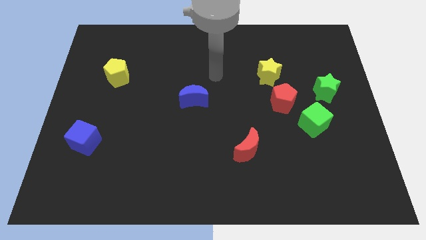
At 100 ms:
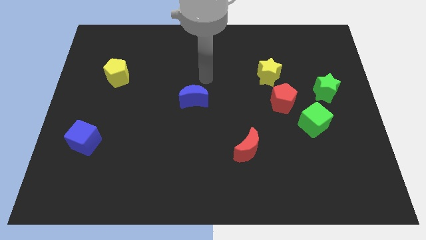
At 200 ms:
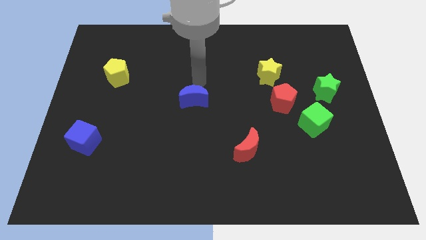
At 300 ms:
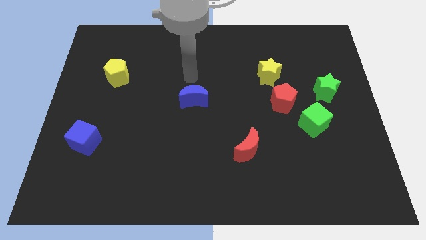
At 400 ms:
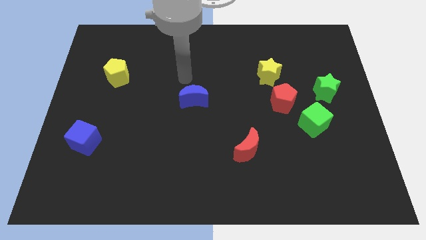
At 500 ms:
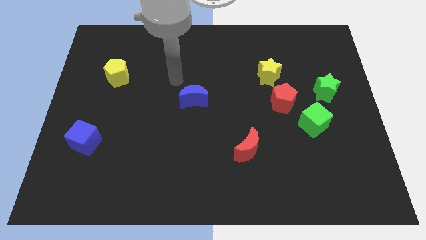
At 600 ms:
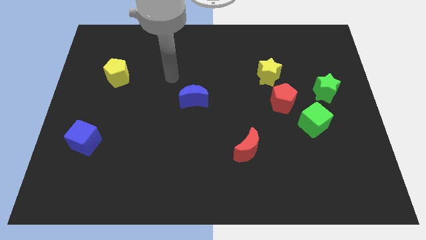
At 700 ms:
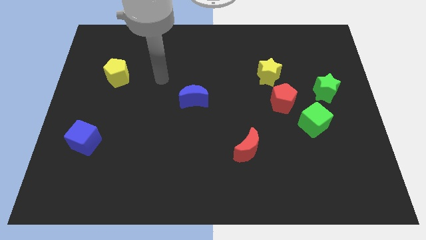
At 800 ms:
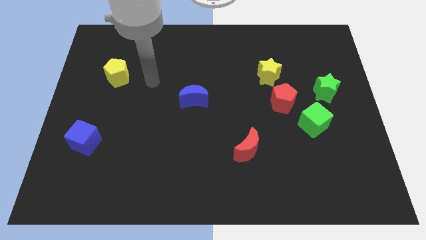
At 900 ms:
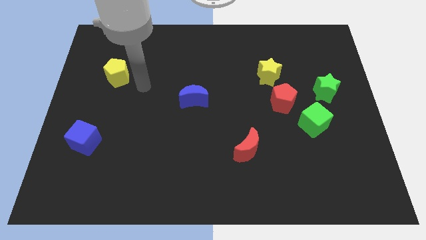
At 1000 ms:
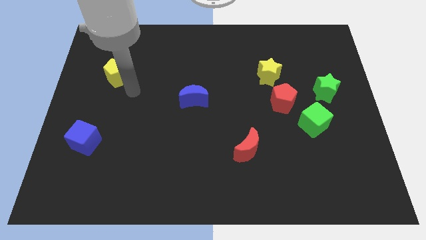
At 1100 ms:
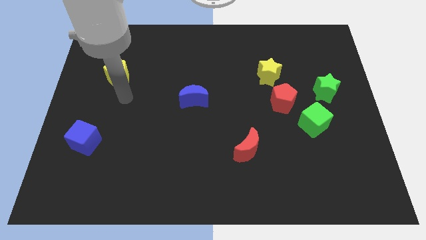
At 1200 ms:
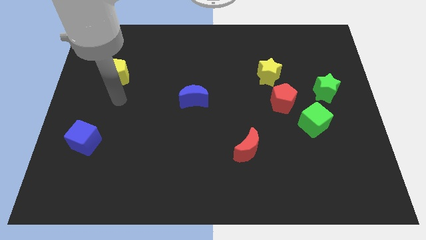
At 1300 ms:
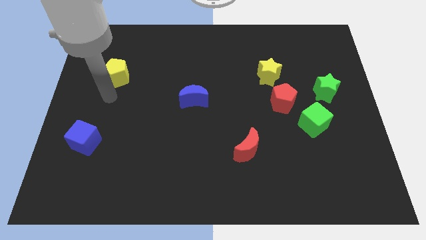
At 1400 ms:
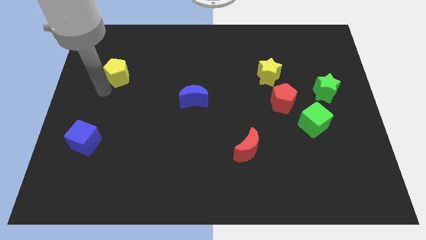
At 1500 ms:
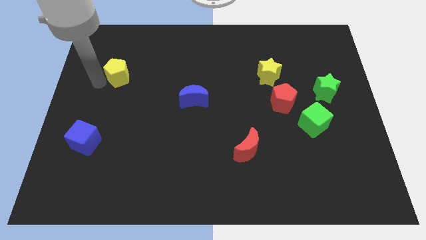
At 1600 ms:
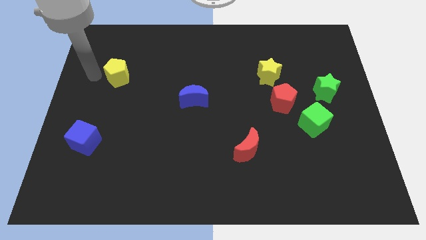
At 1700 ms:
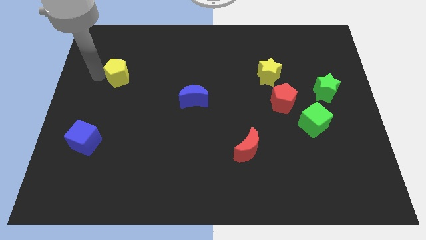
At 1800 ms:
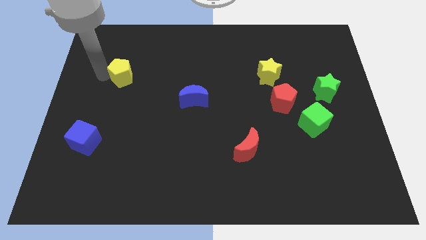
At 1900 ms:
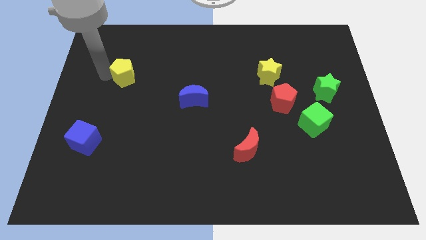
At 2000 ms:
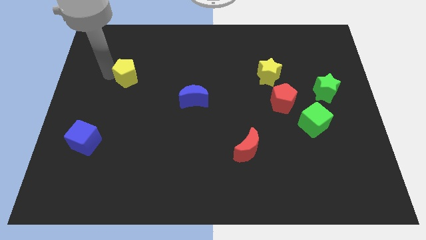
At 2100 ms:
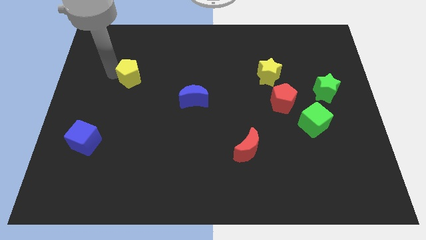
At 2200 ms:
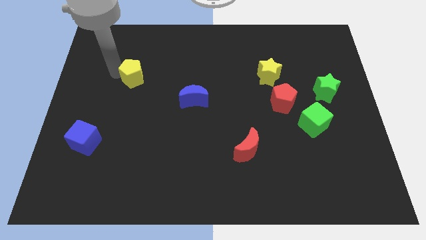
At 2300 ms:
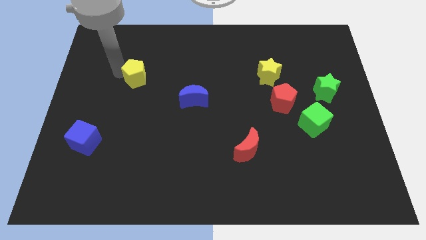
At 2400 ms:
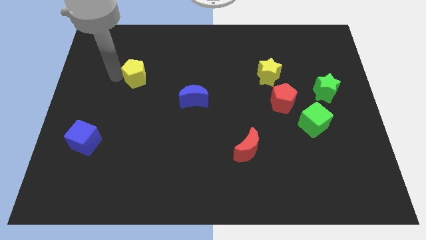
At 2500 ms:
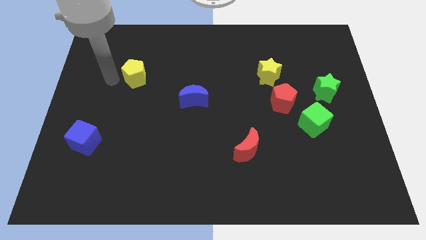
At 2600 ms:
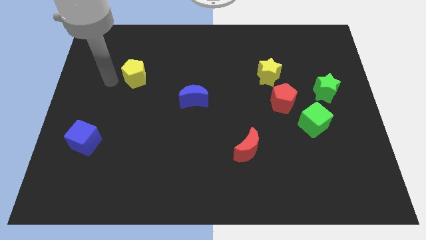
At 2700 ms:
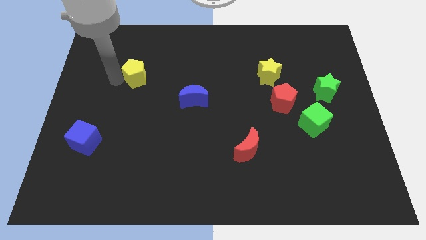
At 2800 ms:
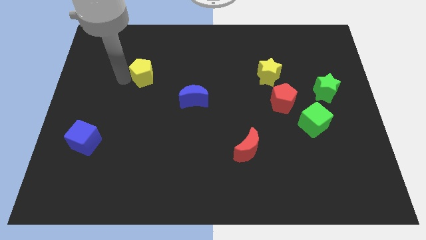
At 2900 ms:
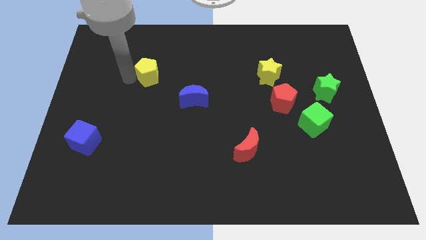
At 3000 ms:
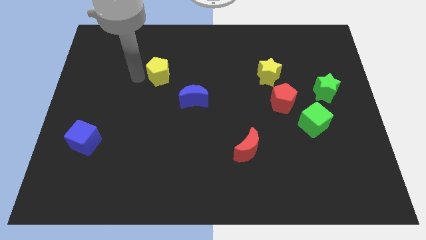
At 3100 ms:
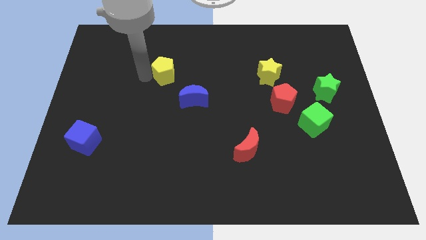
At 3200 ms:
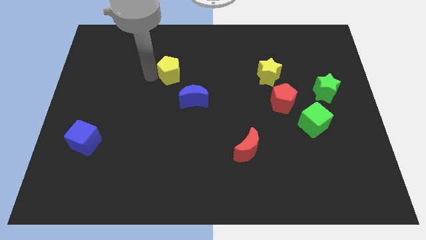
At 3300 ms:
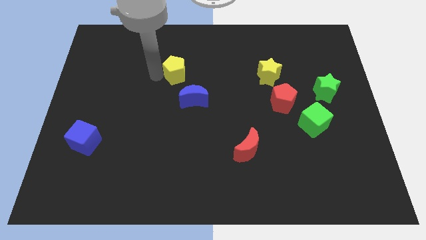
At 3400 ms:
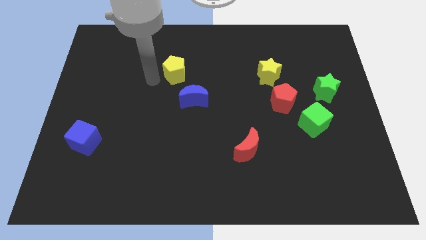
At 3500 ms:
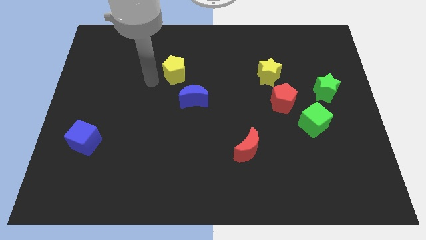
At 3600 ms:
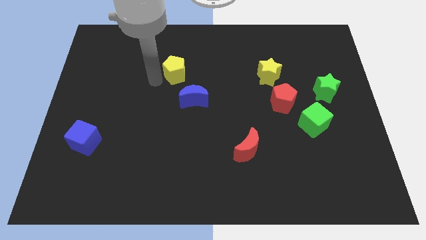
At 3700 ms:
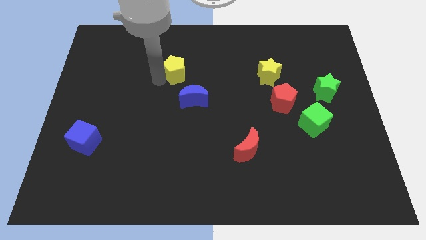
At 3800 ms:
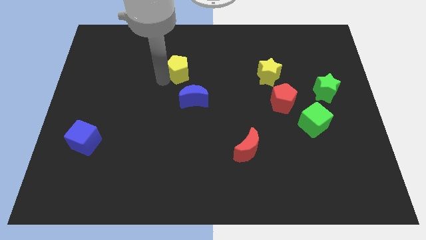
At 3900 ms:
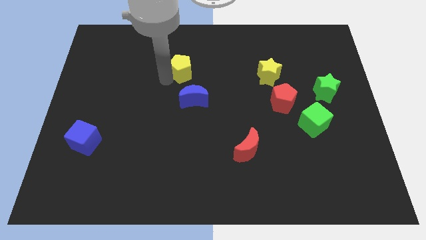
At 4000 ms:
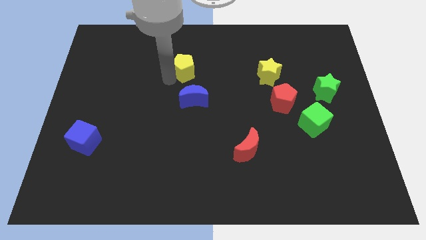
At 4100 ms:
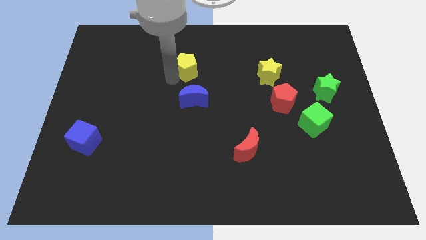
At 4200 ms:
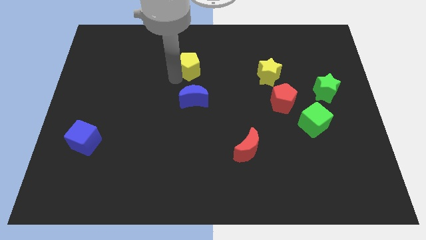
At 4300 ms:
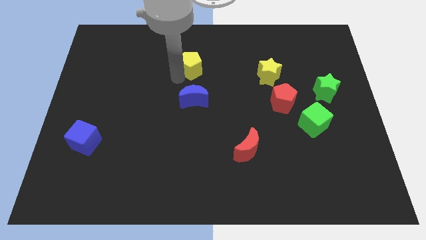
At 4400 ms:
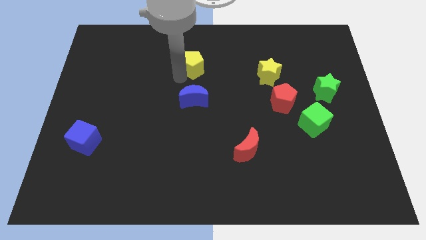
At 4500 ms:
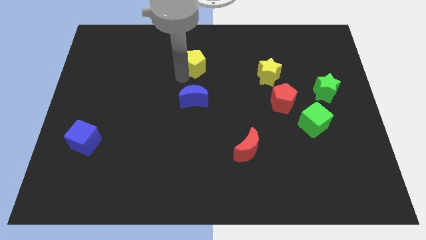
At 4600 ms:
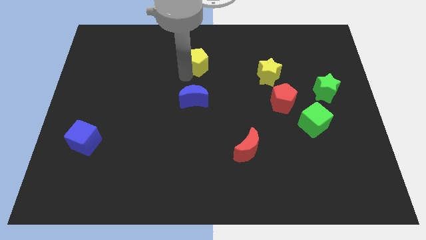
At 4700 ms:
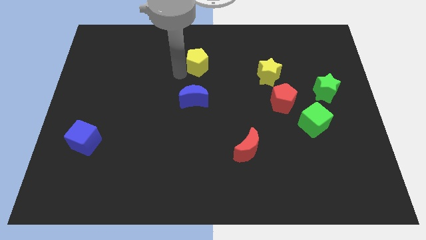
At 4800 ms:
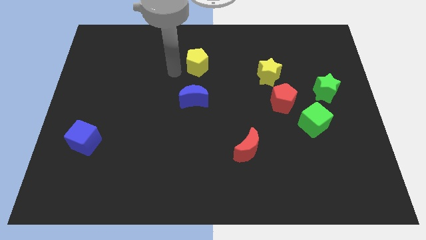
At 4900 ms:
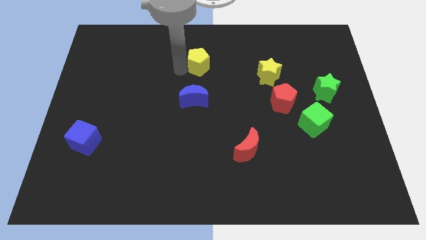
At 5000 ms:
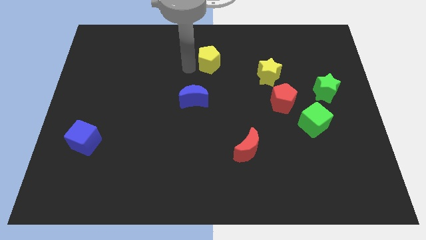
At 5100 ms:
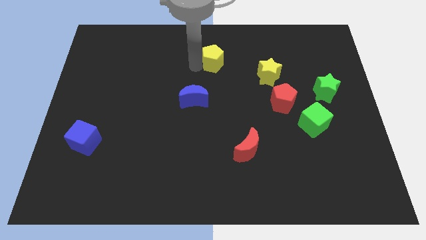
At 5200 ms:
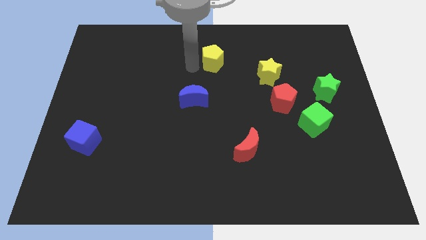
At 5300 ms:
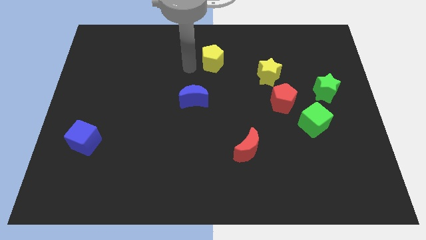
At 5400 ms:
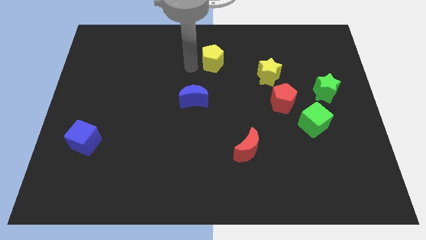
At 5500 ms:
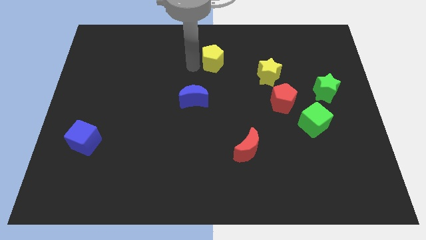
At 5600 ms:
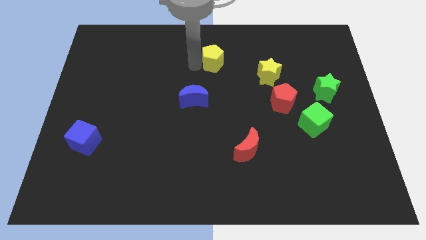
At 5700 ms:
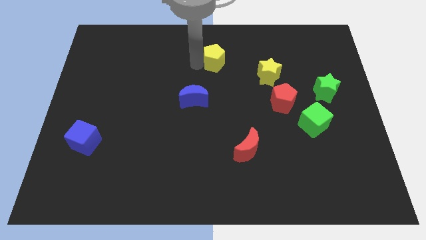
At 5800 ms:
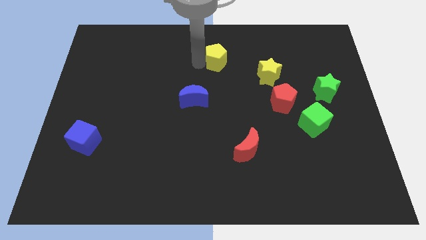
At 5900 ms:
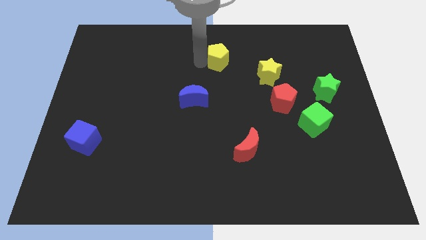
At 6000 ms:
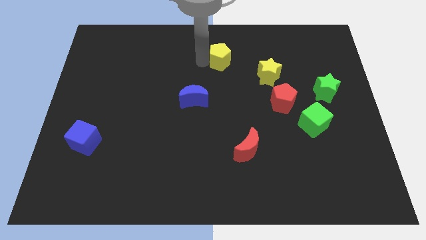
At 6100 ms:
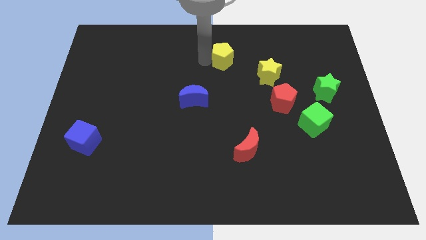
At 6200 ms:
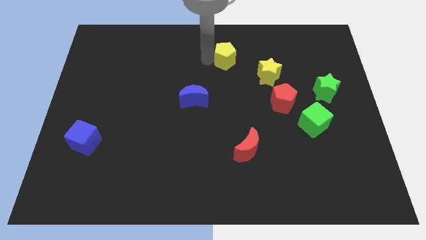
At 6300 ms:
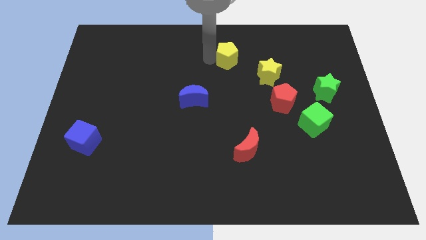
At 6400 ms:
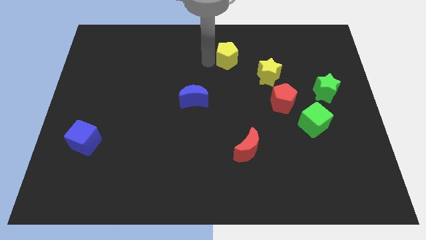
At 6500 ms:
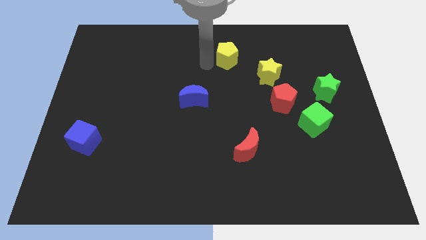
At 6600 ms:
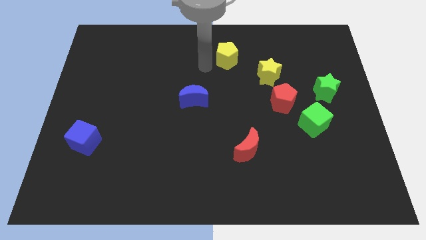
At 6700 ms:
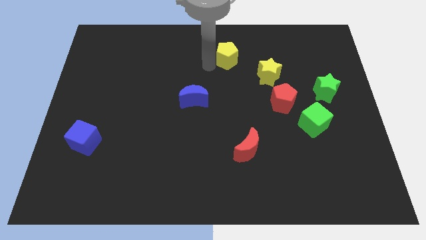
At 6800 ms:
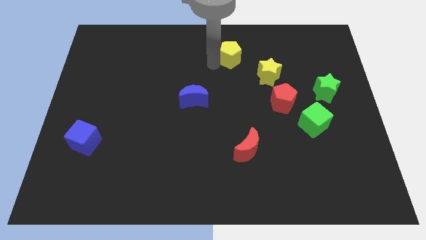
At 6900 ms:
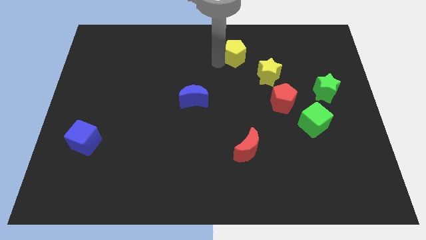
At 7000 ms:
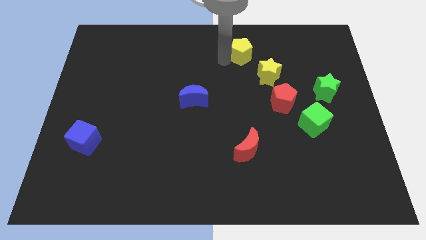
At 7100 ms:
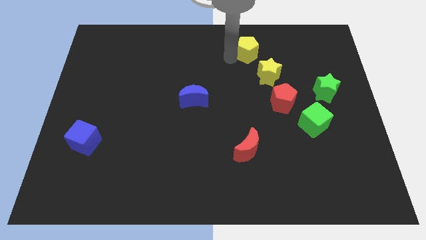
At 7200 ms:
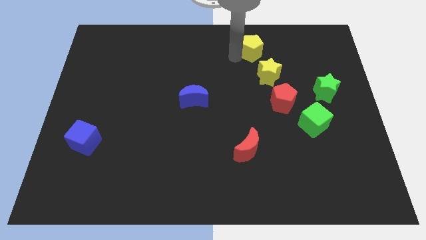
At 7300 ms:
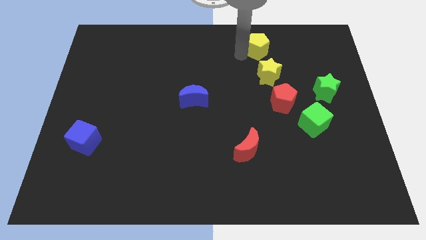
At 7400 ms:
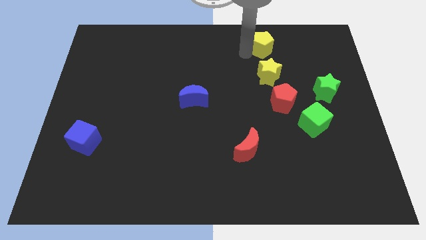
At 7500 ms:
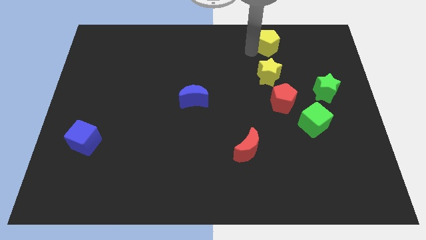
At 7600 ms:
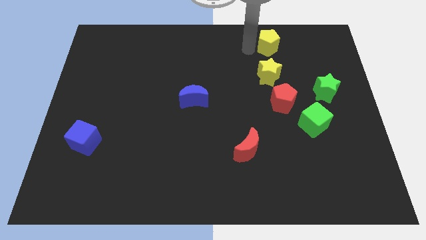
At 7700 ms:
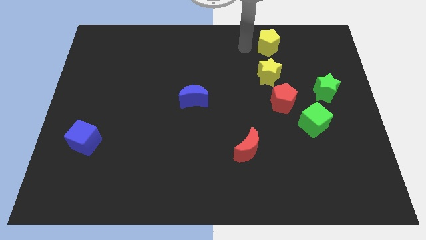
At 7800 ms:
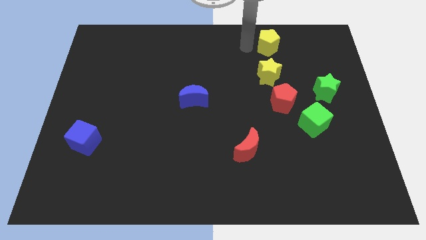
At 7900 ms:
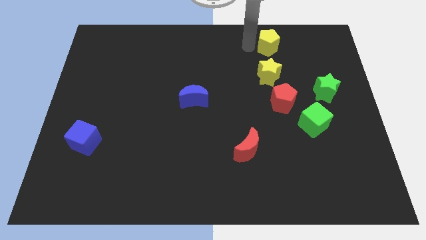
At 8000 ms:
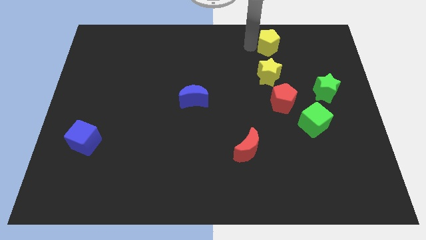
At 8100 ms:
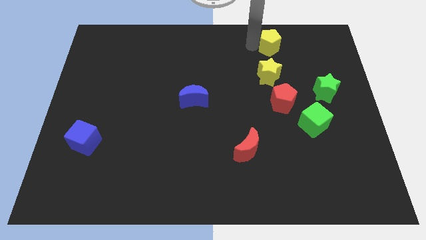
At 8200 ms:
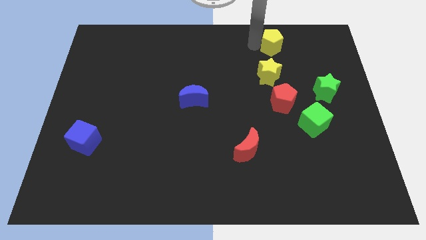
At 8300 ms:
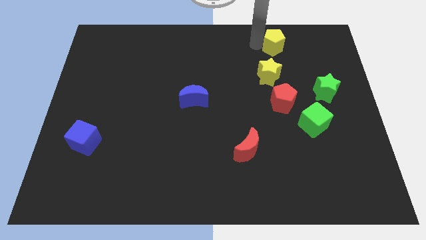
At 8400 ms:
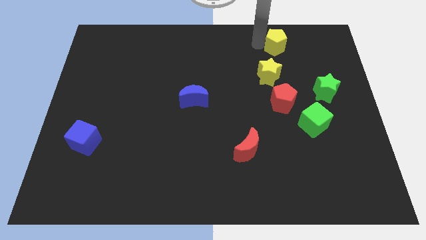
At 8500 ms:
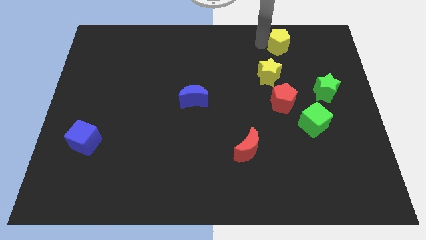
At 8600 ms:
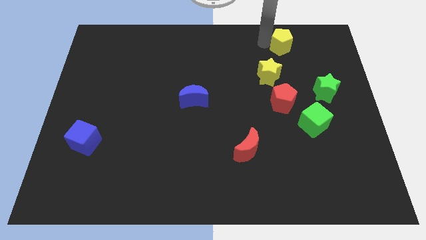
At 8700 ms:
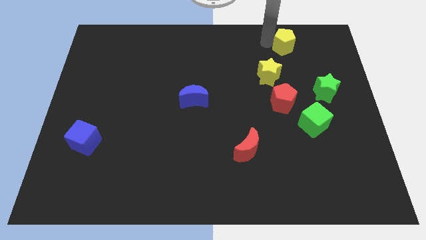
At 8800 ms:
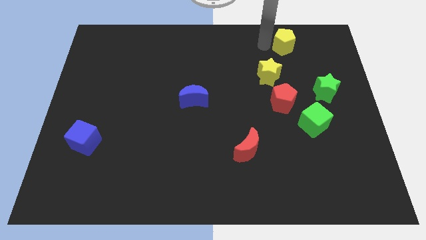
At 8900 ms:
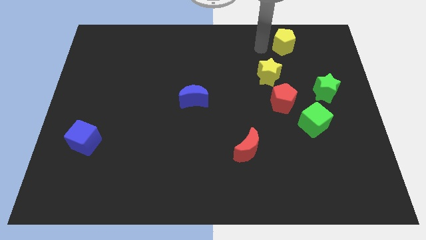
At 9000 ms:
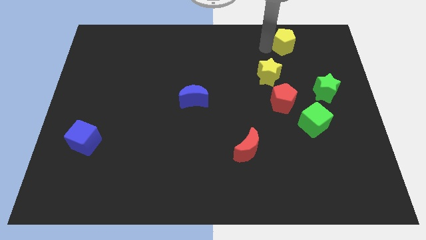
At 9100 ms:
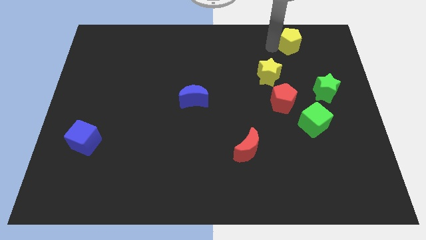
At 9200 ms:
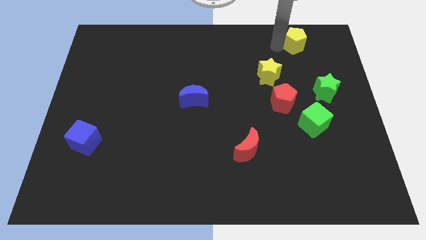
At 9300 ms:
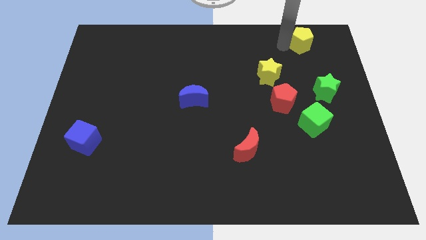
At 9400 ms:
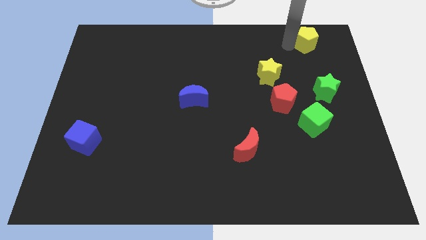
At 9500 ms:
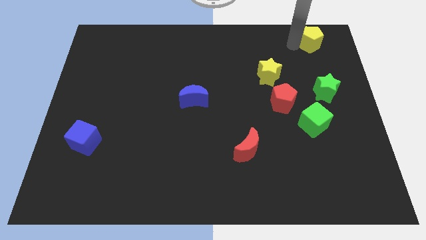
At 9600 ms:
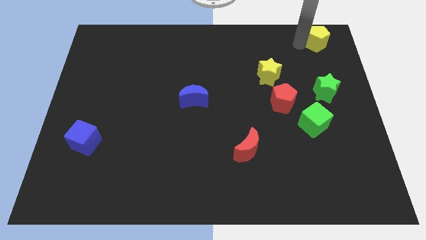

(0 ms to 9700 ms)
move the yellow pentagon to the upper right corner
